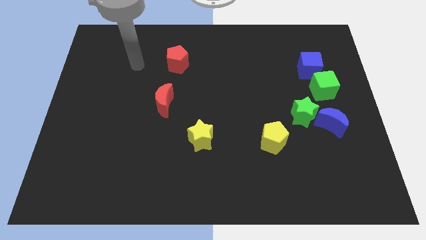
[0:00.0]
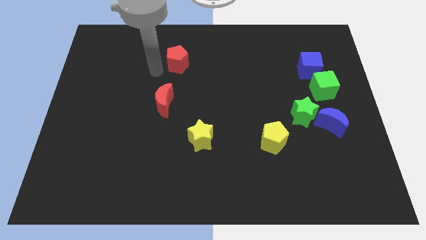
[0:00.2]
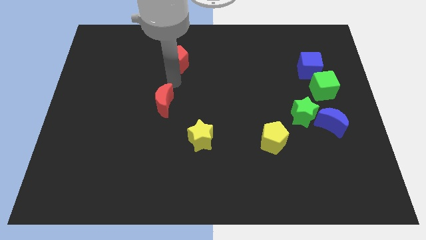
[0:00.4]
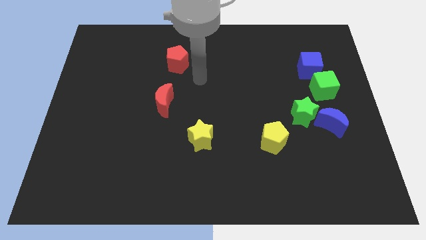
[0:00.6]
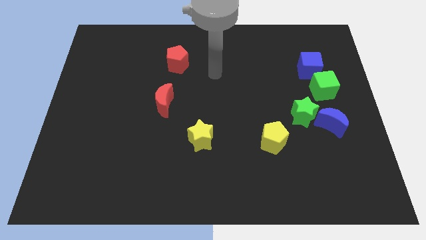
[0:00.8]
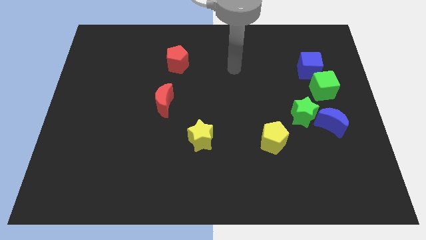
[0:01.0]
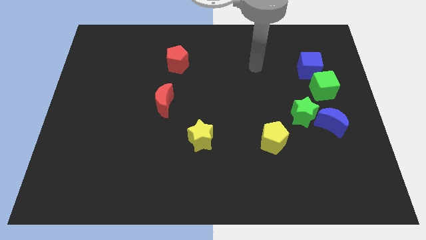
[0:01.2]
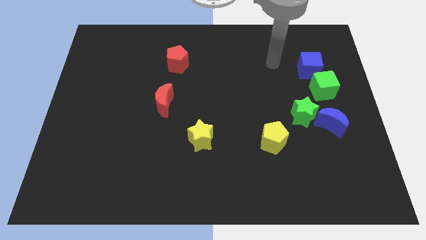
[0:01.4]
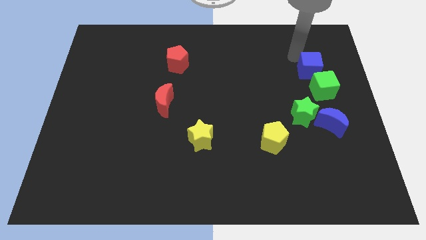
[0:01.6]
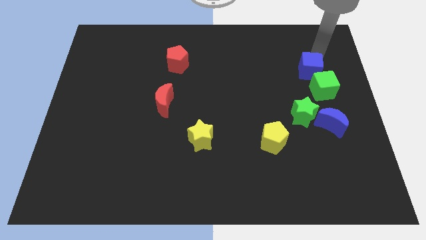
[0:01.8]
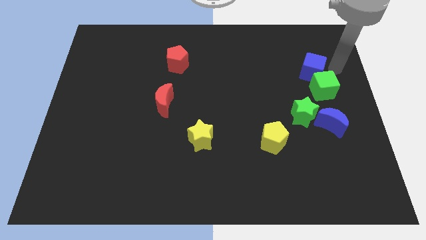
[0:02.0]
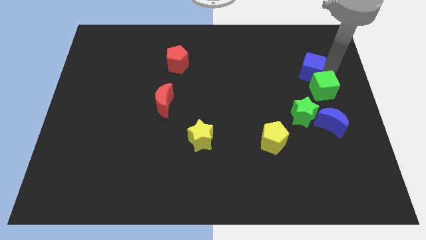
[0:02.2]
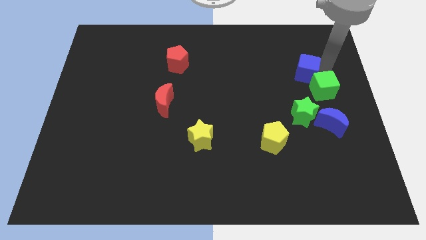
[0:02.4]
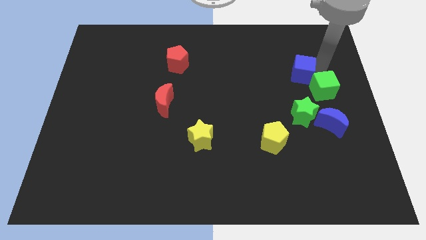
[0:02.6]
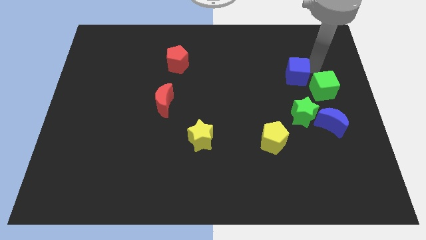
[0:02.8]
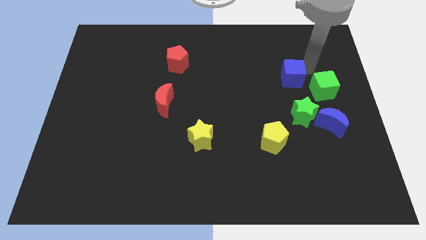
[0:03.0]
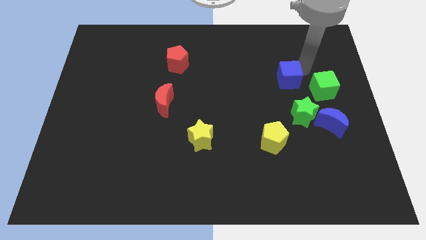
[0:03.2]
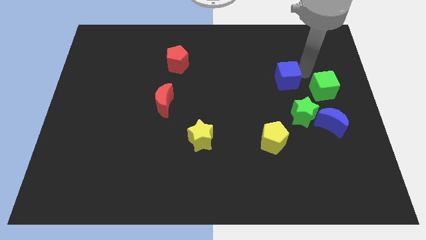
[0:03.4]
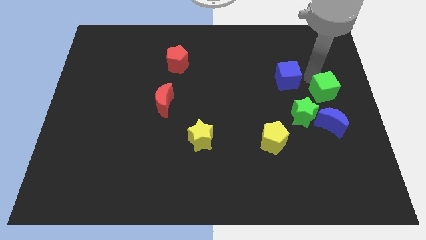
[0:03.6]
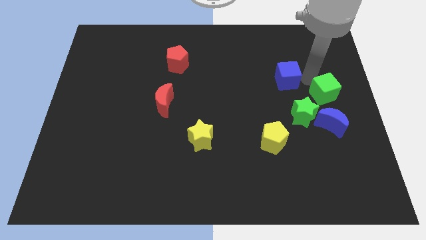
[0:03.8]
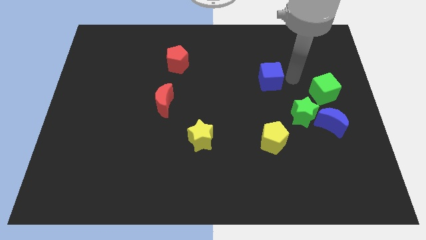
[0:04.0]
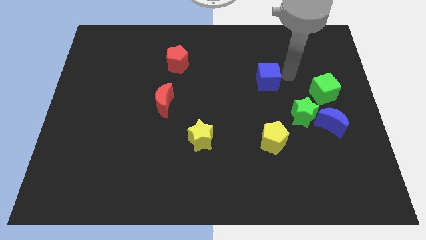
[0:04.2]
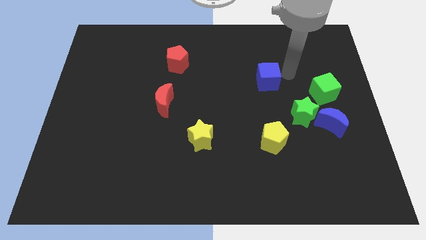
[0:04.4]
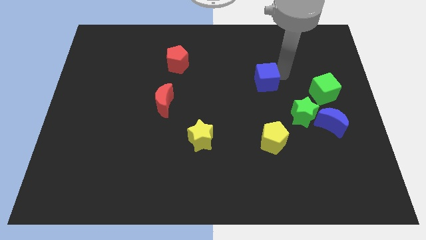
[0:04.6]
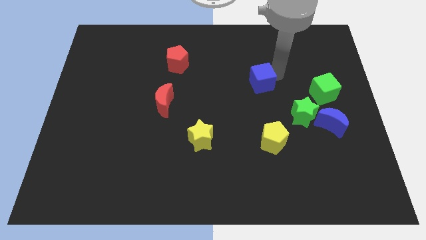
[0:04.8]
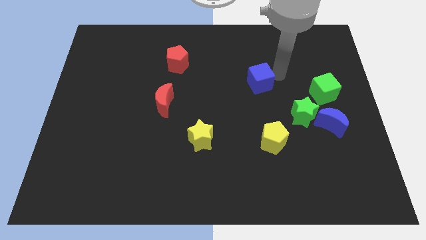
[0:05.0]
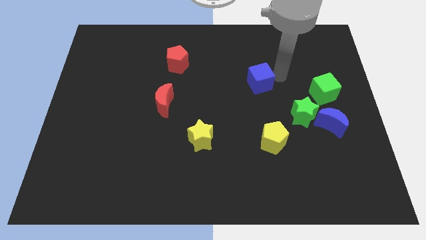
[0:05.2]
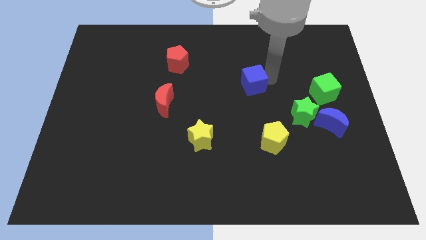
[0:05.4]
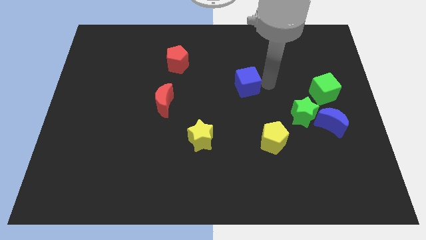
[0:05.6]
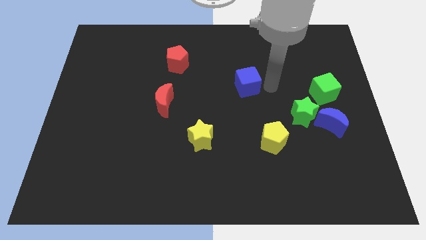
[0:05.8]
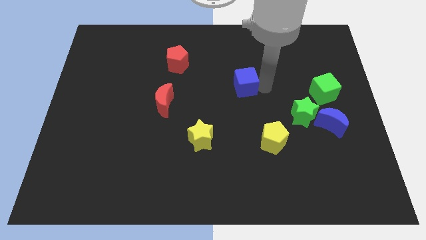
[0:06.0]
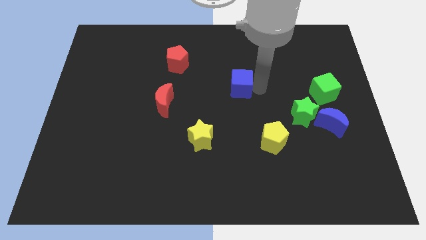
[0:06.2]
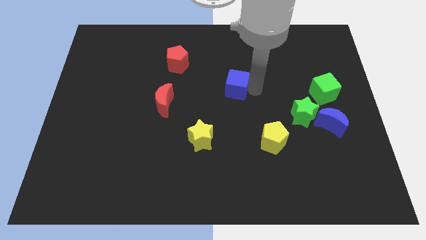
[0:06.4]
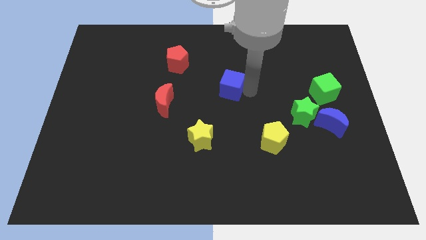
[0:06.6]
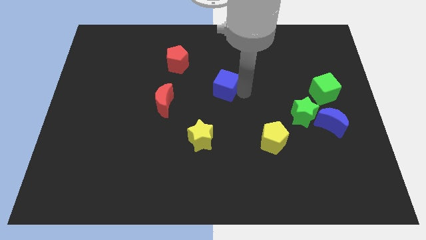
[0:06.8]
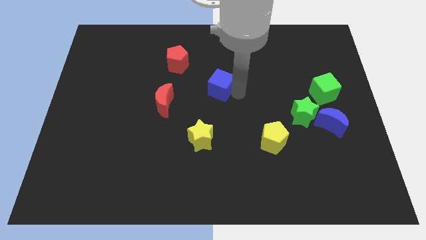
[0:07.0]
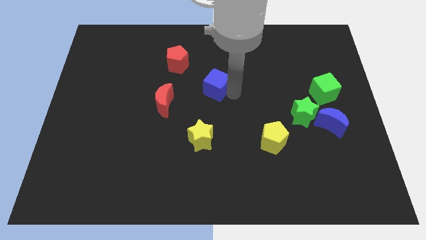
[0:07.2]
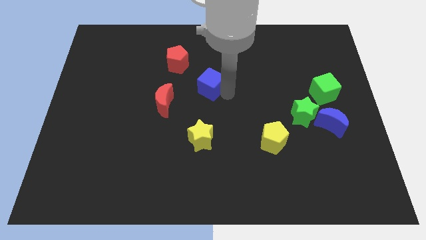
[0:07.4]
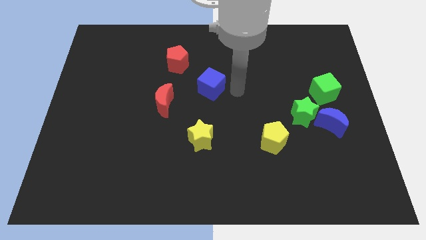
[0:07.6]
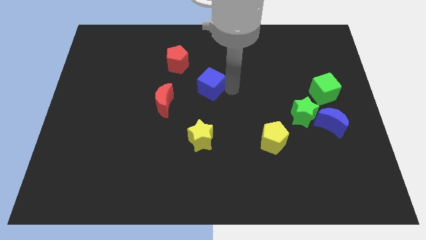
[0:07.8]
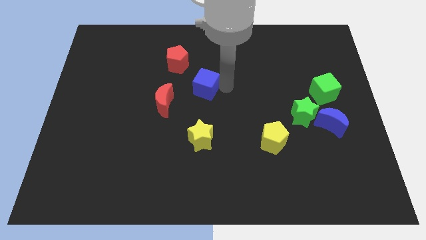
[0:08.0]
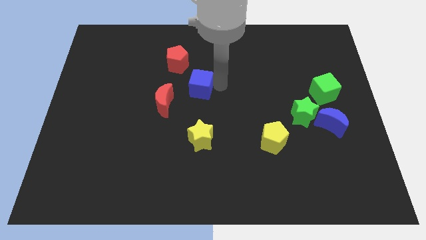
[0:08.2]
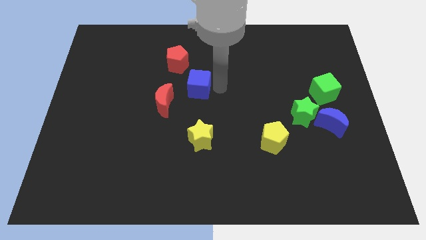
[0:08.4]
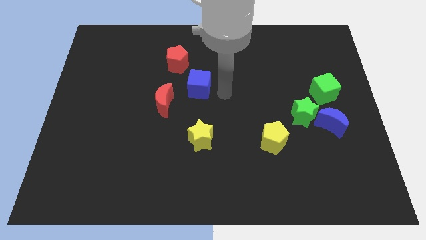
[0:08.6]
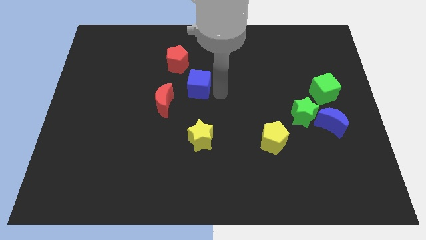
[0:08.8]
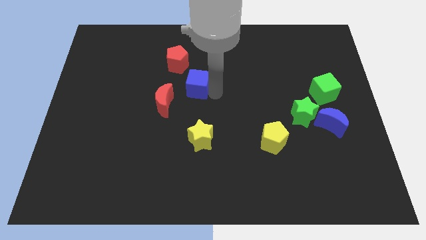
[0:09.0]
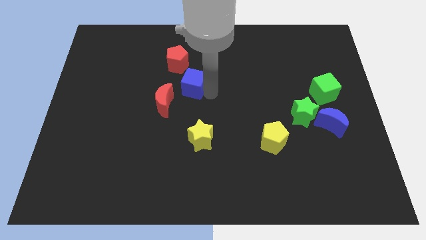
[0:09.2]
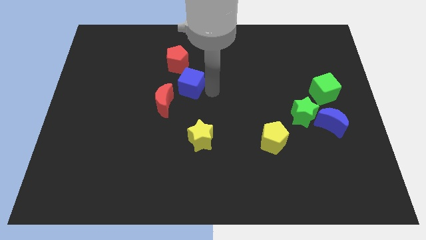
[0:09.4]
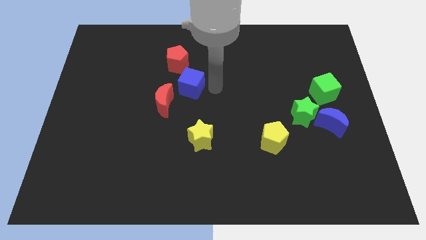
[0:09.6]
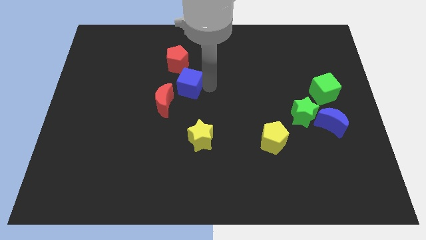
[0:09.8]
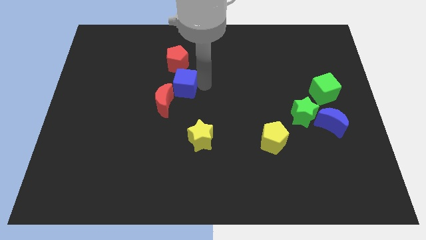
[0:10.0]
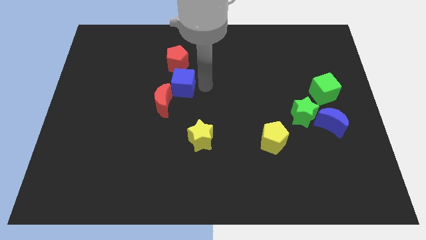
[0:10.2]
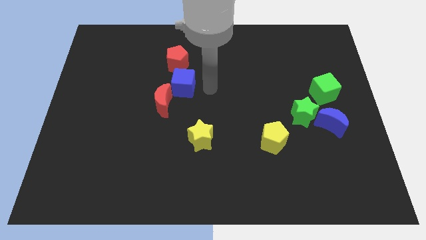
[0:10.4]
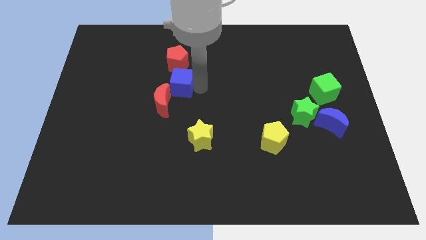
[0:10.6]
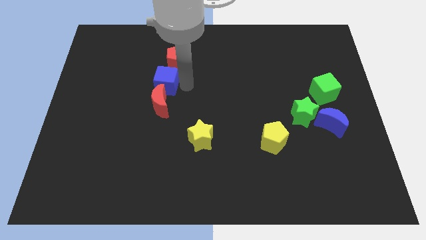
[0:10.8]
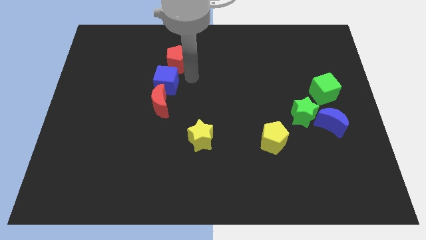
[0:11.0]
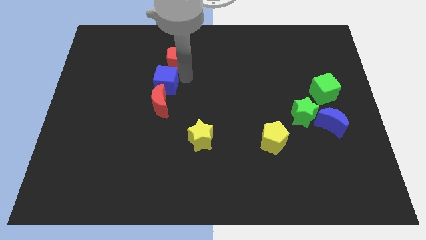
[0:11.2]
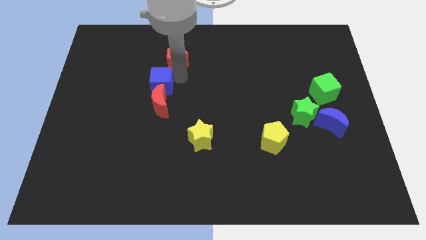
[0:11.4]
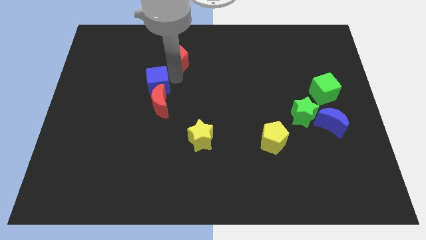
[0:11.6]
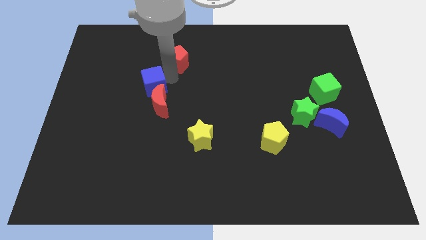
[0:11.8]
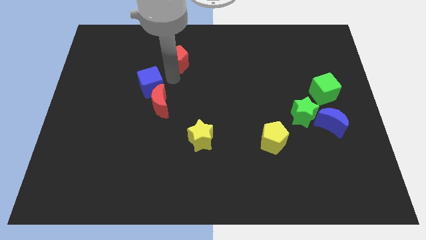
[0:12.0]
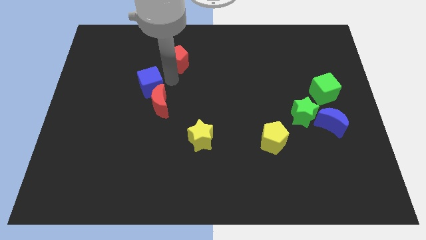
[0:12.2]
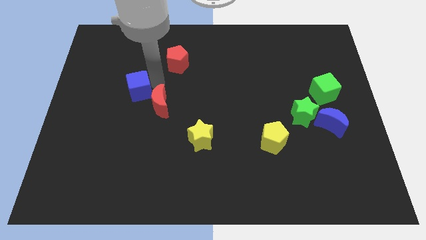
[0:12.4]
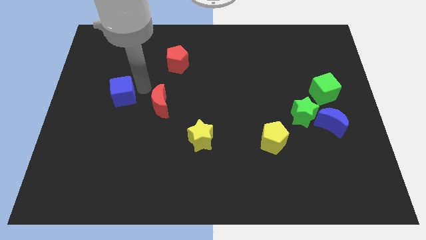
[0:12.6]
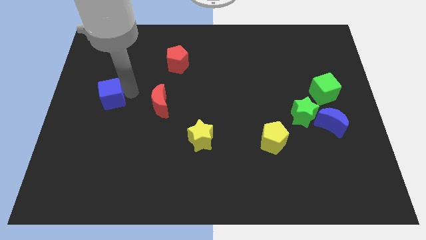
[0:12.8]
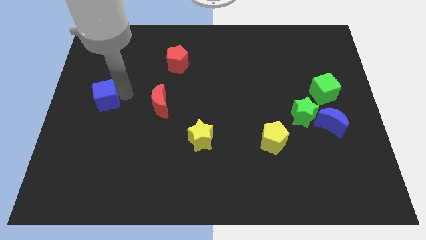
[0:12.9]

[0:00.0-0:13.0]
slide the blue cube to the left side of the board
